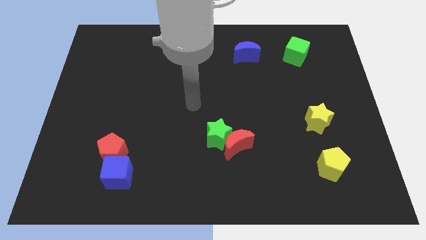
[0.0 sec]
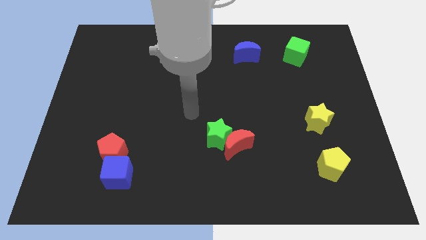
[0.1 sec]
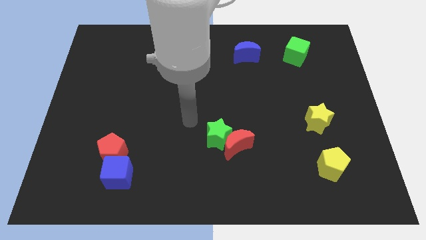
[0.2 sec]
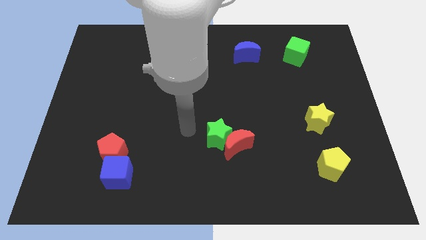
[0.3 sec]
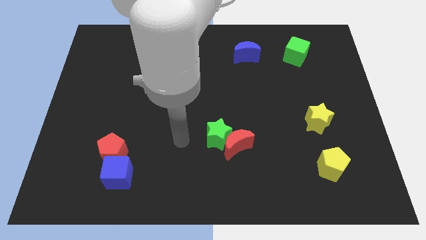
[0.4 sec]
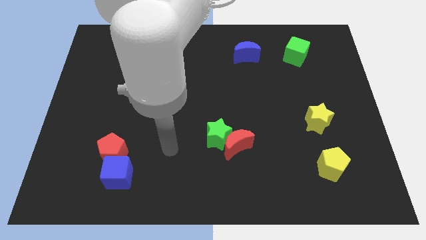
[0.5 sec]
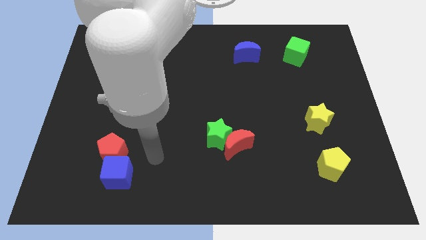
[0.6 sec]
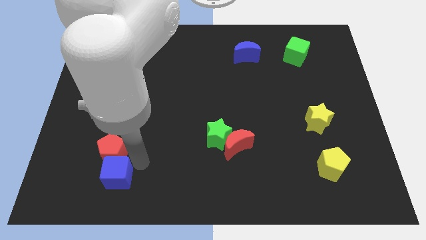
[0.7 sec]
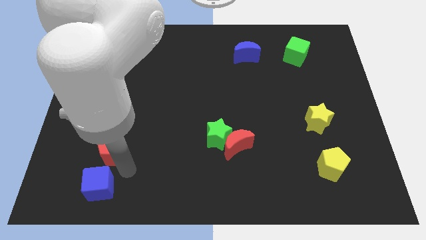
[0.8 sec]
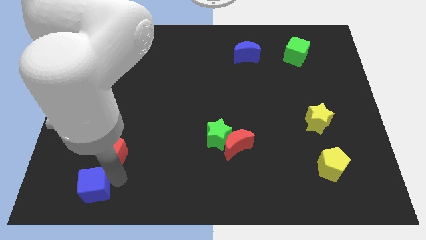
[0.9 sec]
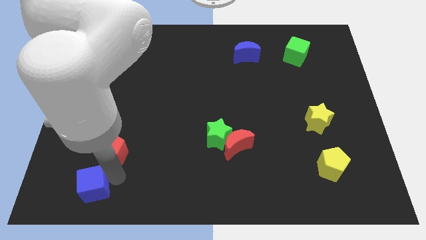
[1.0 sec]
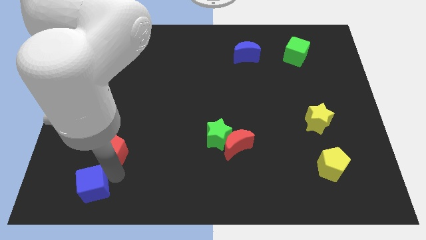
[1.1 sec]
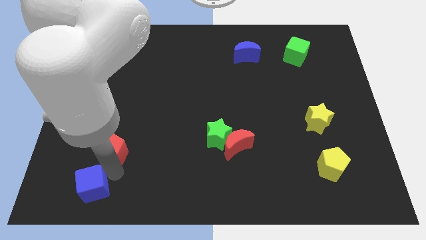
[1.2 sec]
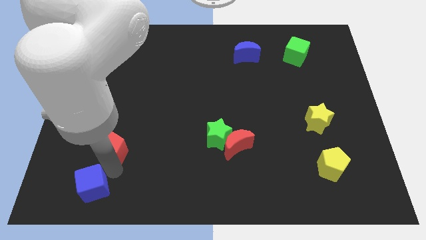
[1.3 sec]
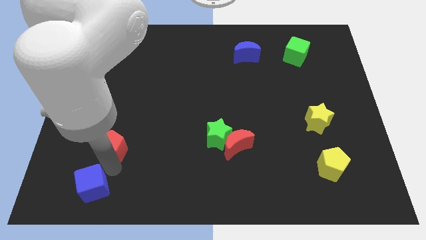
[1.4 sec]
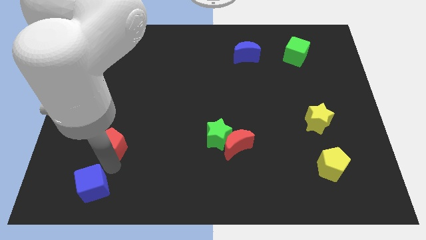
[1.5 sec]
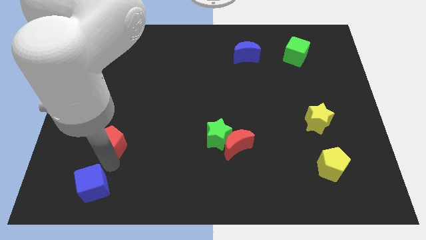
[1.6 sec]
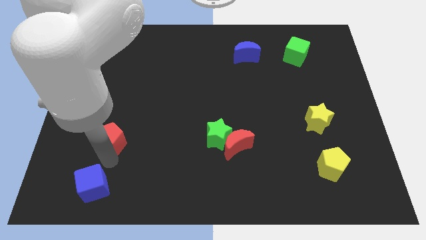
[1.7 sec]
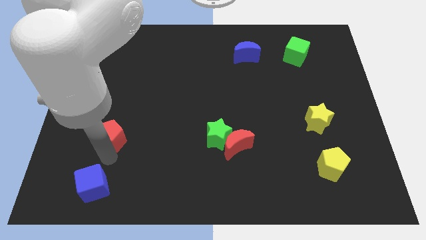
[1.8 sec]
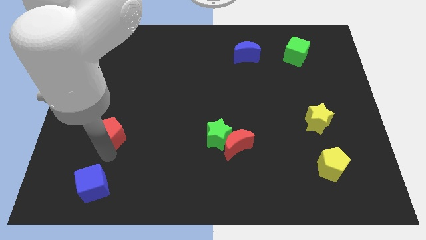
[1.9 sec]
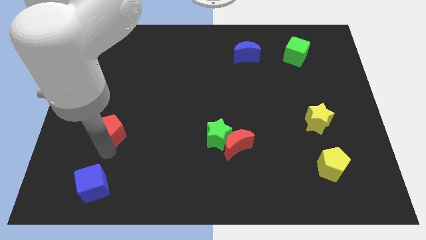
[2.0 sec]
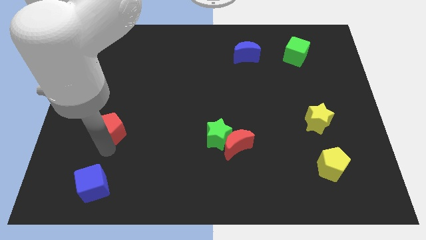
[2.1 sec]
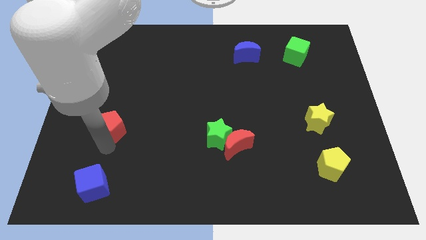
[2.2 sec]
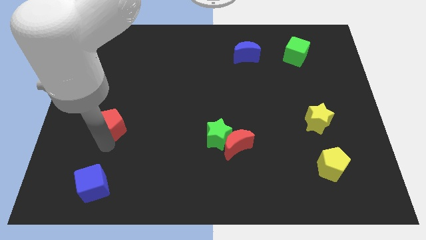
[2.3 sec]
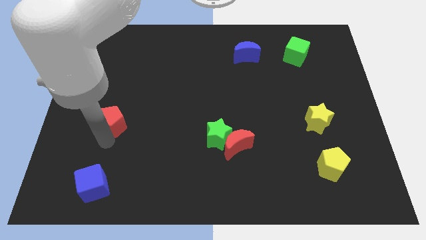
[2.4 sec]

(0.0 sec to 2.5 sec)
slightly move the red pentagon upwards

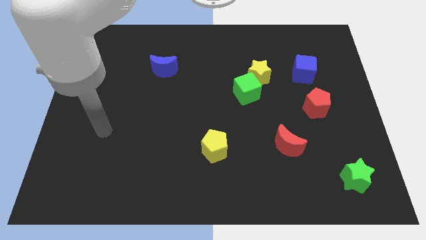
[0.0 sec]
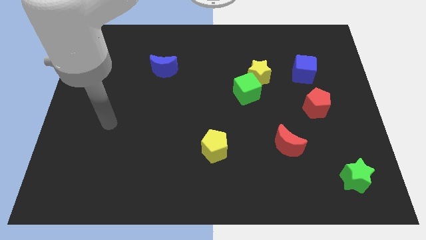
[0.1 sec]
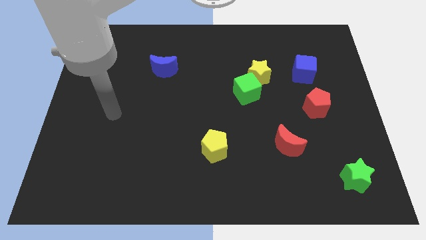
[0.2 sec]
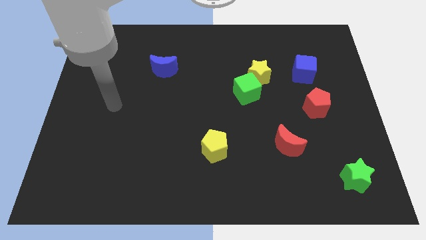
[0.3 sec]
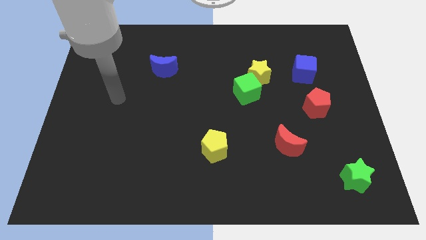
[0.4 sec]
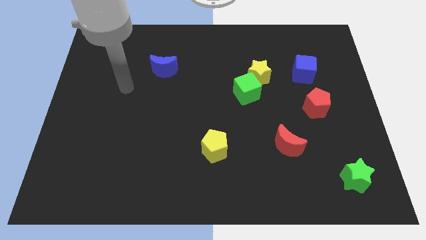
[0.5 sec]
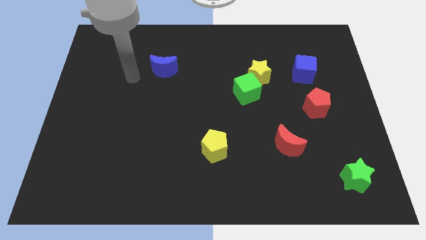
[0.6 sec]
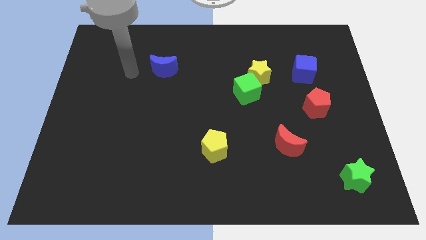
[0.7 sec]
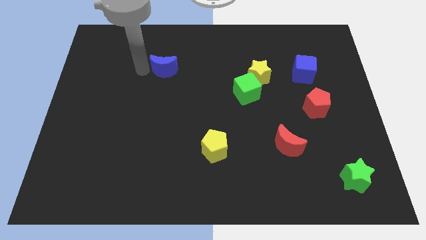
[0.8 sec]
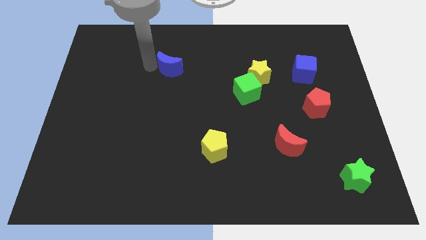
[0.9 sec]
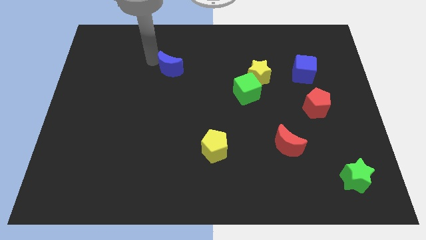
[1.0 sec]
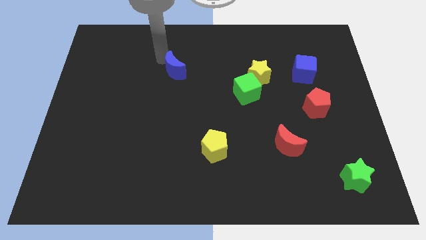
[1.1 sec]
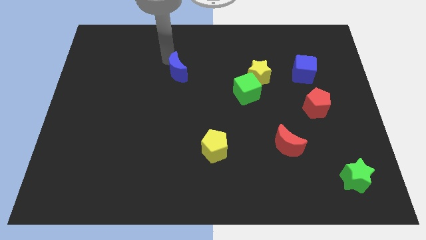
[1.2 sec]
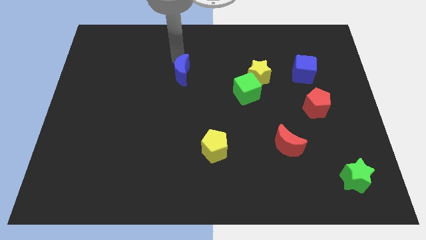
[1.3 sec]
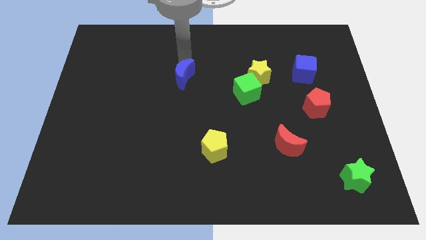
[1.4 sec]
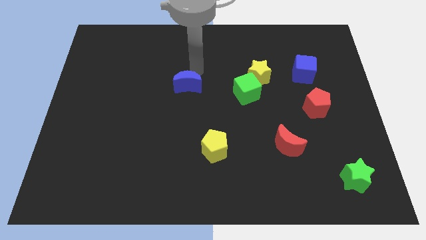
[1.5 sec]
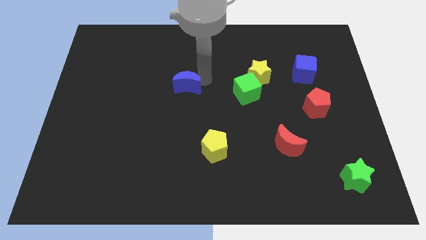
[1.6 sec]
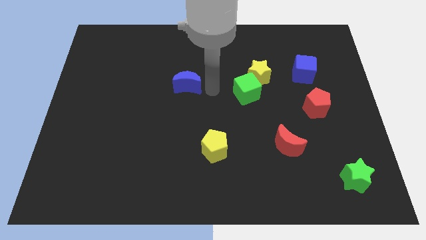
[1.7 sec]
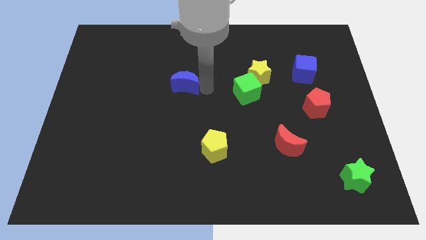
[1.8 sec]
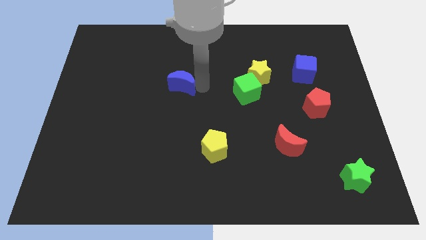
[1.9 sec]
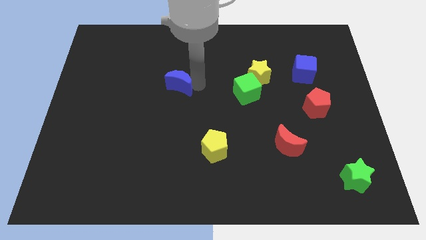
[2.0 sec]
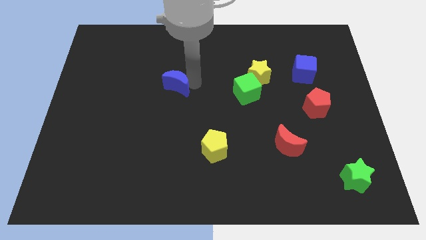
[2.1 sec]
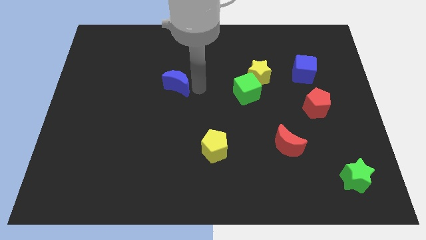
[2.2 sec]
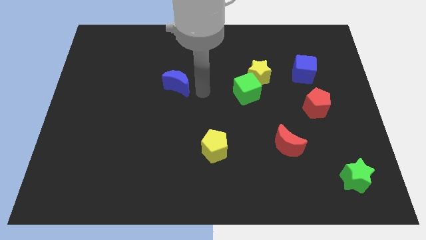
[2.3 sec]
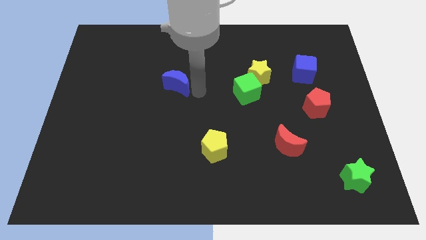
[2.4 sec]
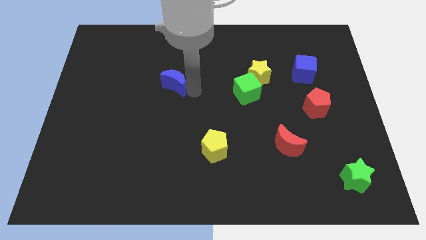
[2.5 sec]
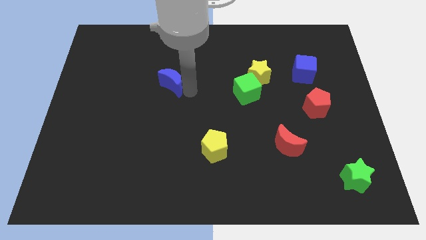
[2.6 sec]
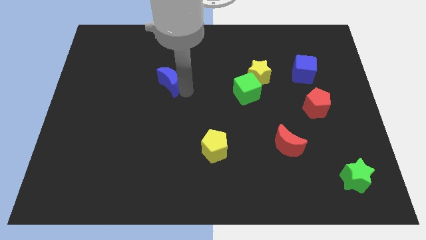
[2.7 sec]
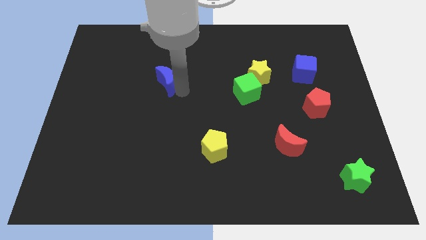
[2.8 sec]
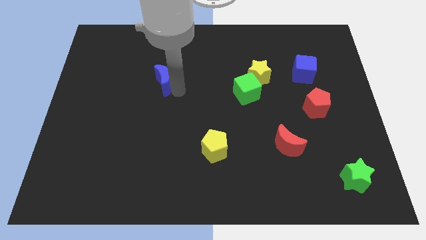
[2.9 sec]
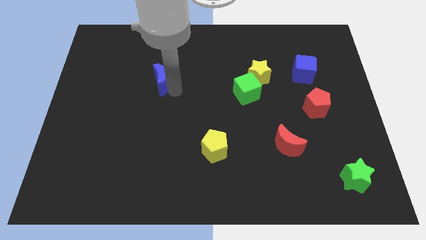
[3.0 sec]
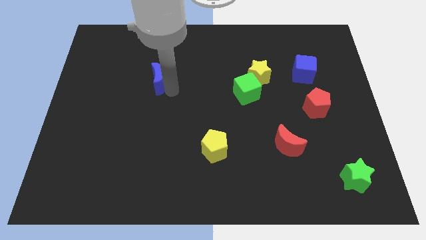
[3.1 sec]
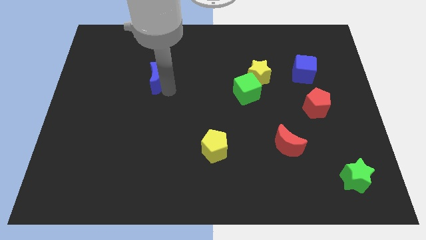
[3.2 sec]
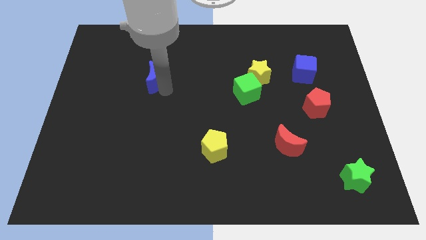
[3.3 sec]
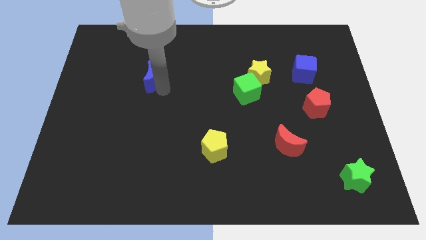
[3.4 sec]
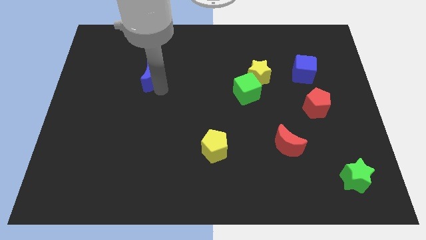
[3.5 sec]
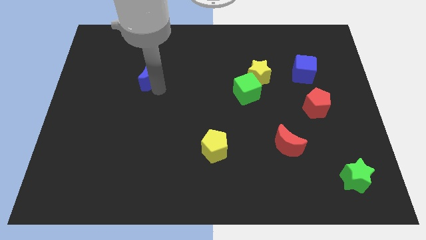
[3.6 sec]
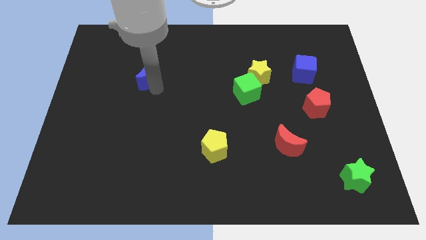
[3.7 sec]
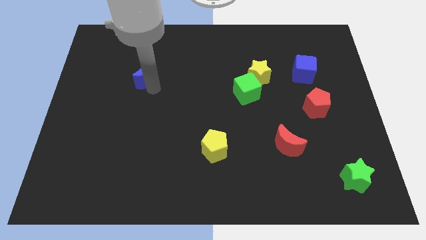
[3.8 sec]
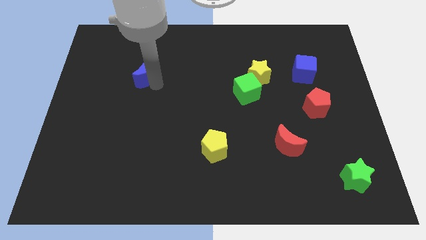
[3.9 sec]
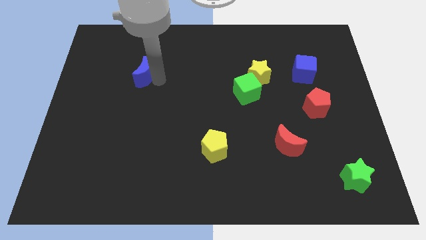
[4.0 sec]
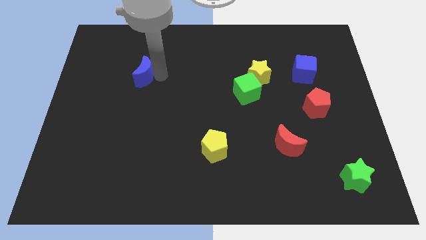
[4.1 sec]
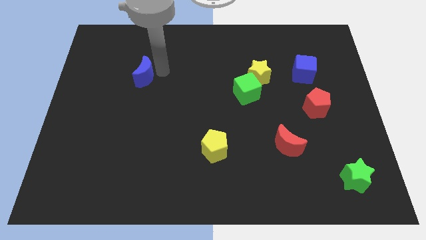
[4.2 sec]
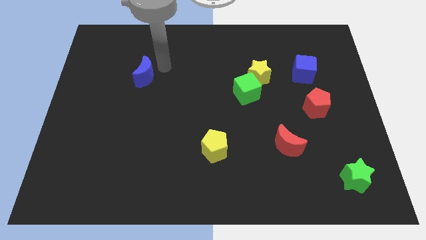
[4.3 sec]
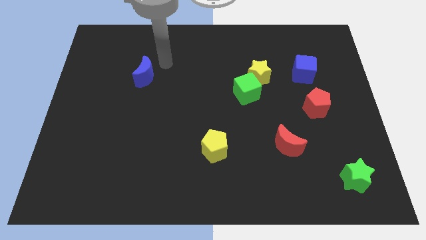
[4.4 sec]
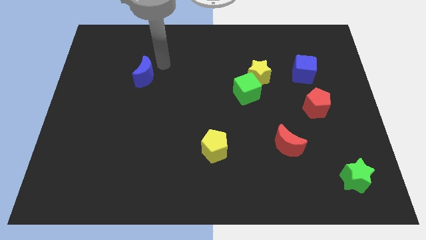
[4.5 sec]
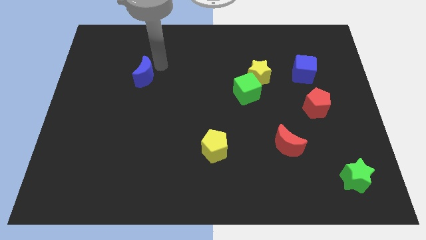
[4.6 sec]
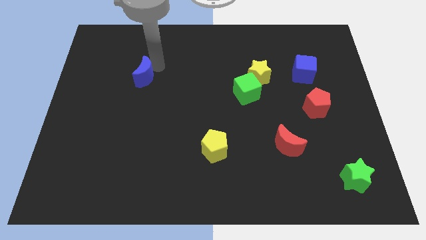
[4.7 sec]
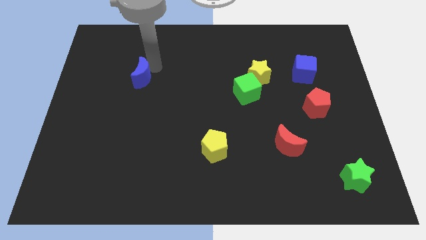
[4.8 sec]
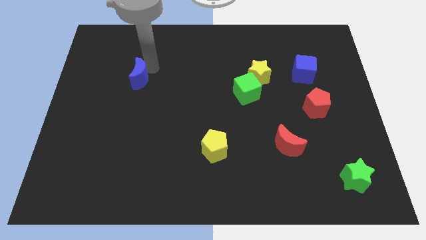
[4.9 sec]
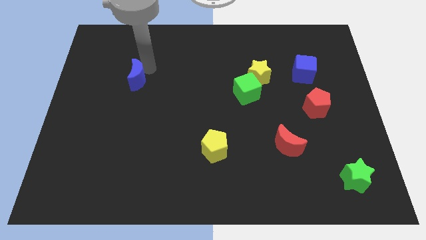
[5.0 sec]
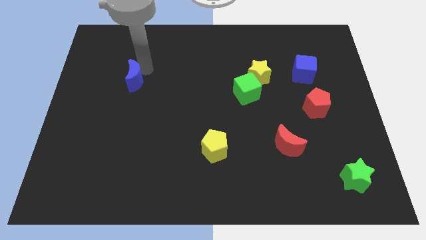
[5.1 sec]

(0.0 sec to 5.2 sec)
slide the blue moon a bit down and then left

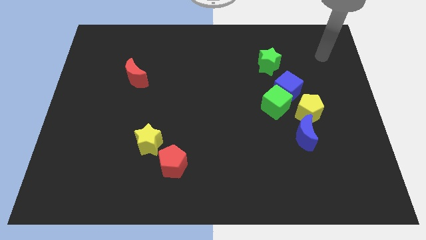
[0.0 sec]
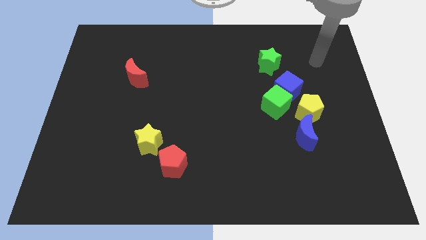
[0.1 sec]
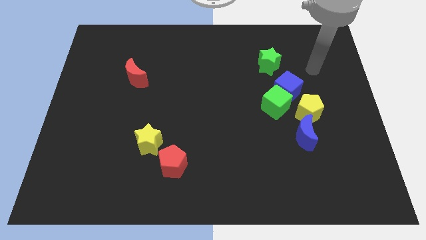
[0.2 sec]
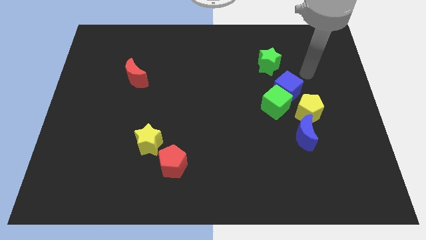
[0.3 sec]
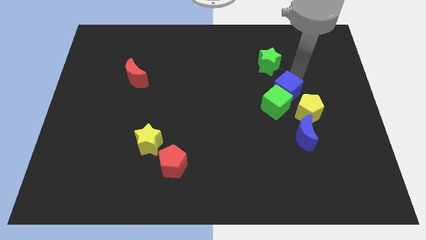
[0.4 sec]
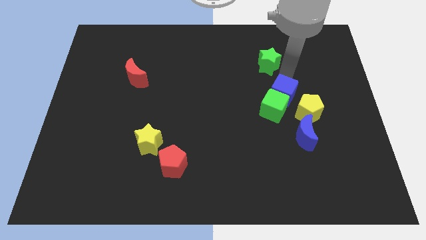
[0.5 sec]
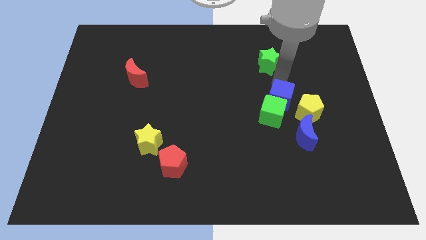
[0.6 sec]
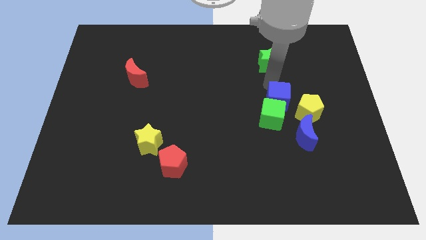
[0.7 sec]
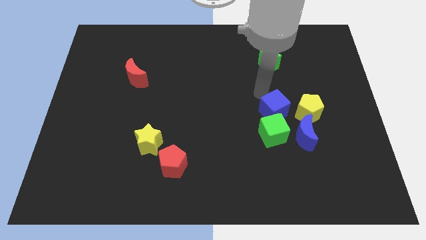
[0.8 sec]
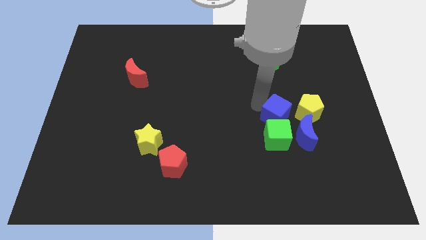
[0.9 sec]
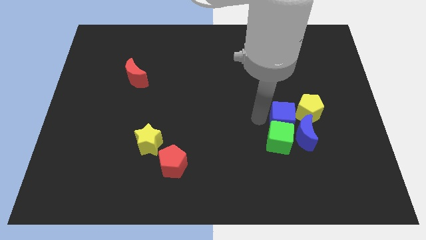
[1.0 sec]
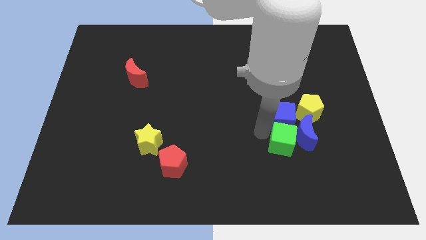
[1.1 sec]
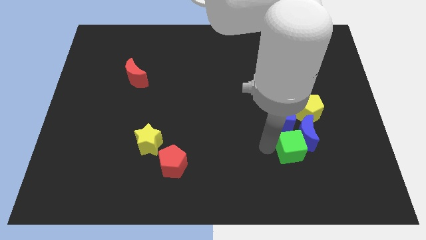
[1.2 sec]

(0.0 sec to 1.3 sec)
move the green cube slightly down and then right
